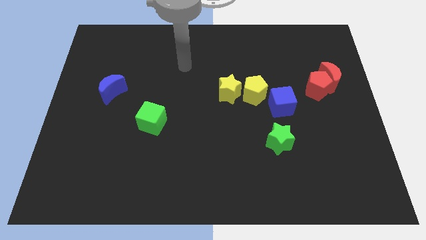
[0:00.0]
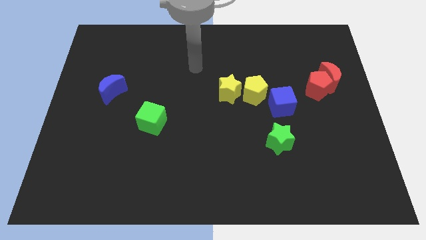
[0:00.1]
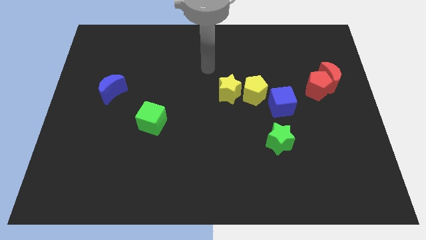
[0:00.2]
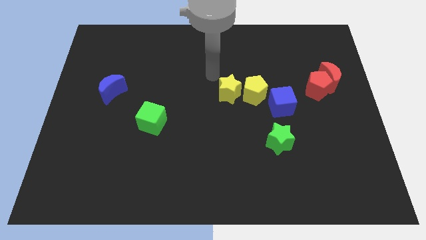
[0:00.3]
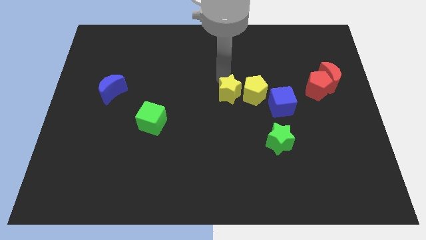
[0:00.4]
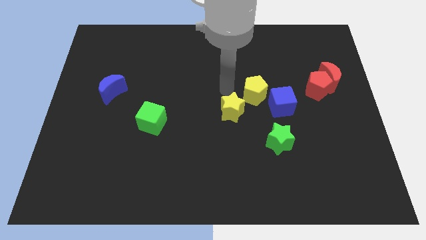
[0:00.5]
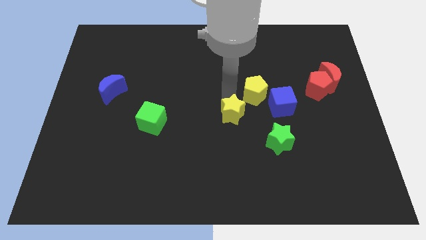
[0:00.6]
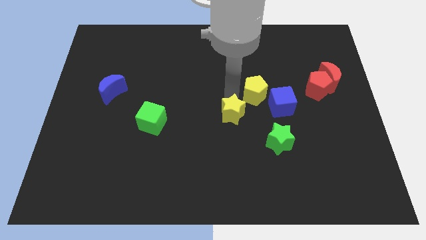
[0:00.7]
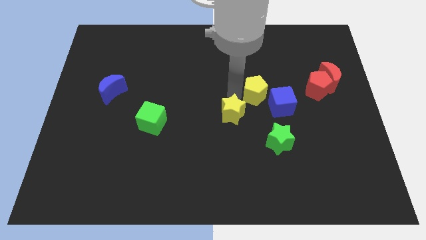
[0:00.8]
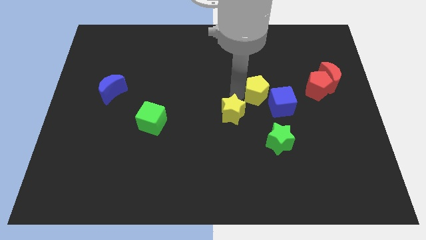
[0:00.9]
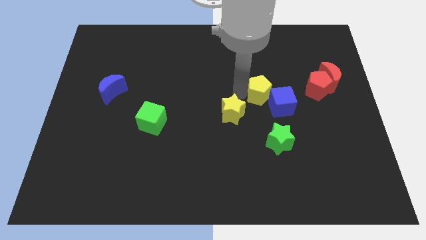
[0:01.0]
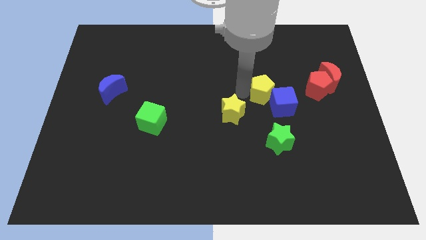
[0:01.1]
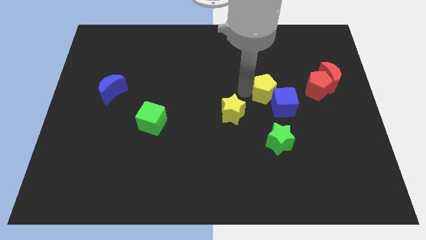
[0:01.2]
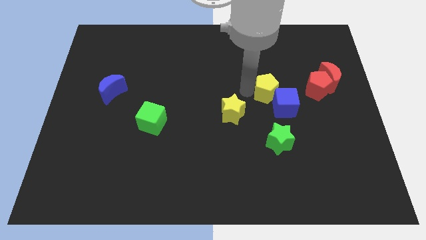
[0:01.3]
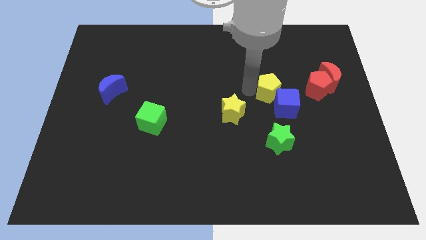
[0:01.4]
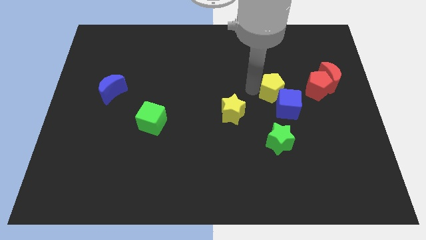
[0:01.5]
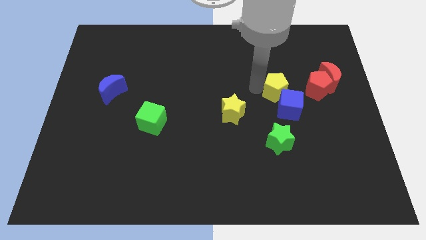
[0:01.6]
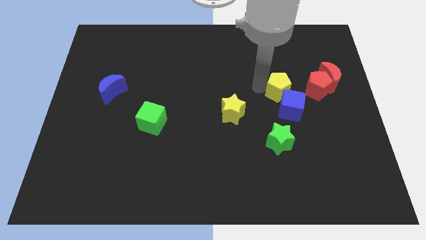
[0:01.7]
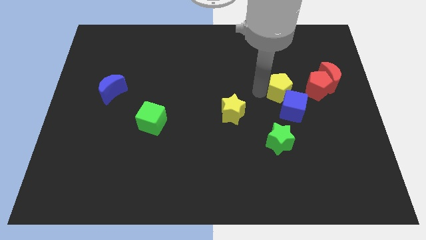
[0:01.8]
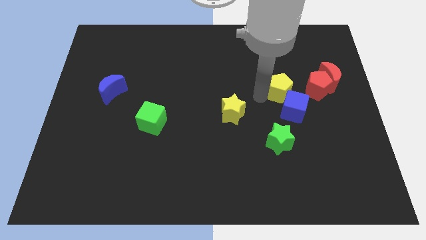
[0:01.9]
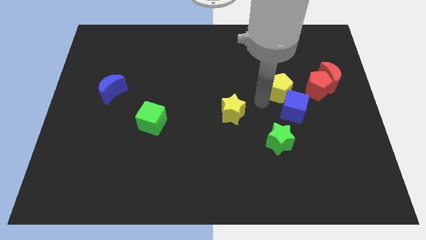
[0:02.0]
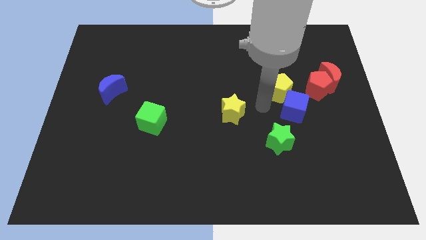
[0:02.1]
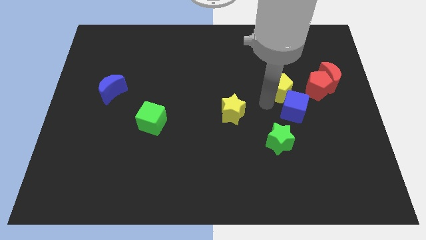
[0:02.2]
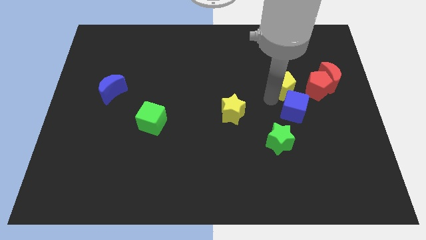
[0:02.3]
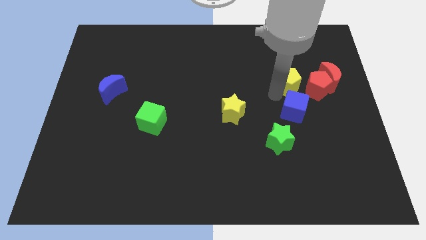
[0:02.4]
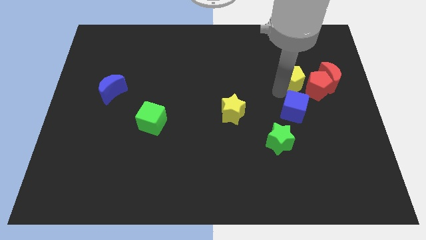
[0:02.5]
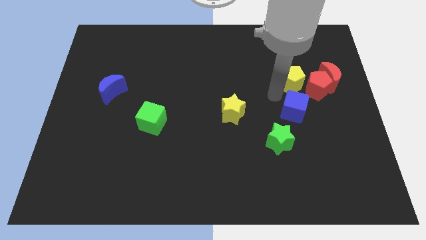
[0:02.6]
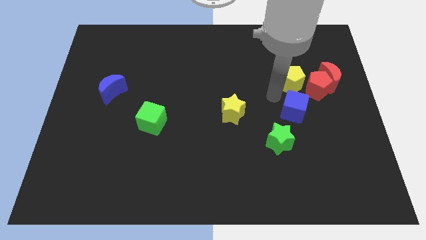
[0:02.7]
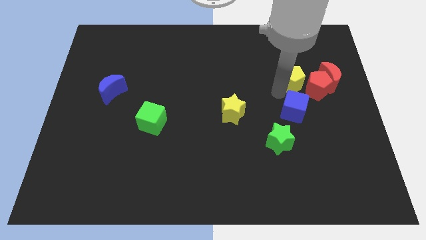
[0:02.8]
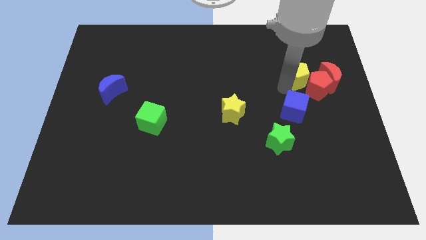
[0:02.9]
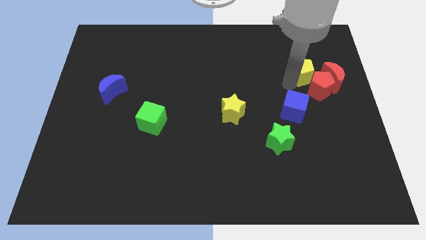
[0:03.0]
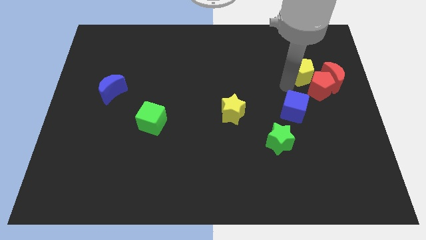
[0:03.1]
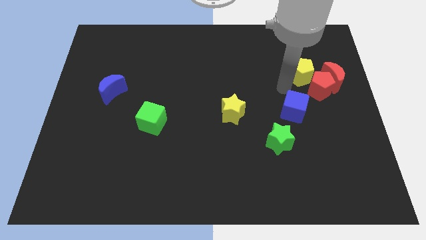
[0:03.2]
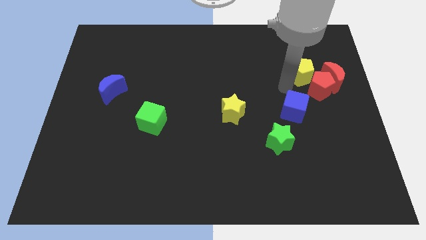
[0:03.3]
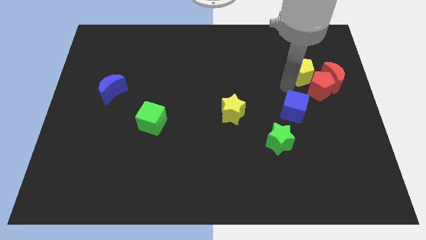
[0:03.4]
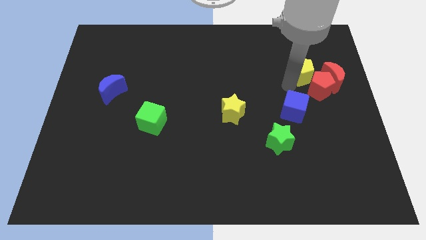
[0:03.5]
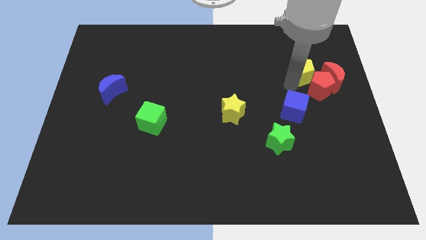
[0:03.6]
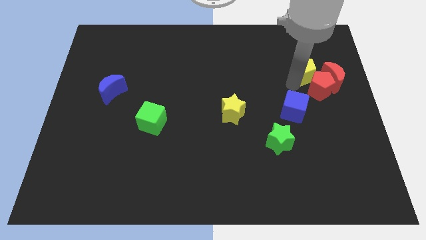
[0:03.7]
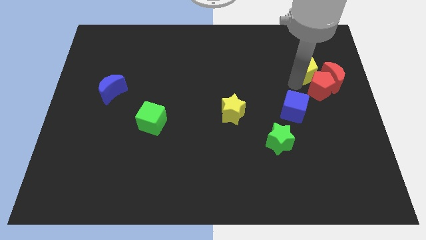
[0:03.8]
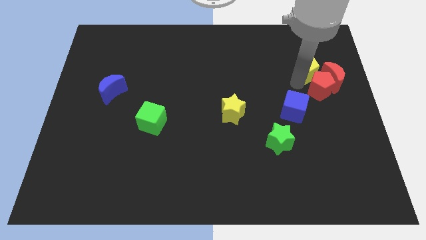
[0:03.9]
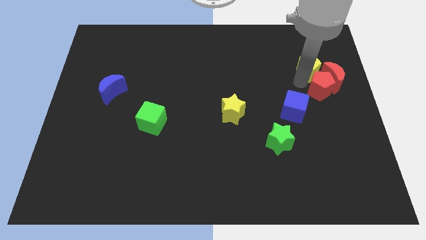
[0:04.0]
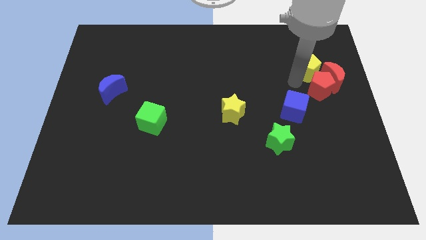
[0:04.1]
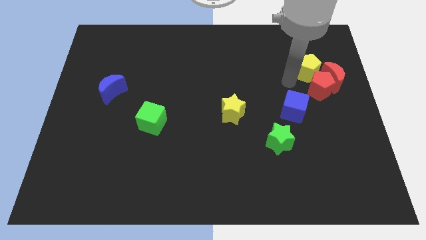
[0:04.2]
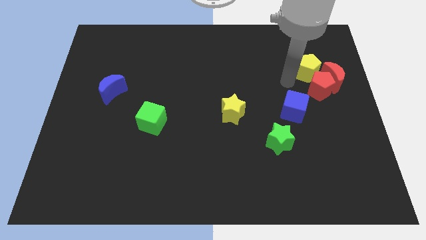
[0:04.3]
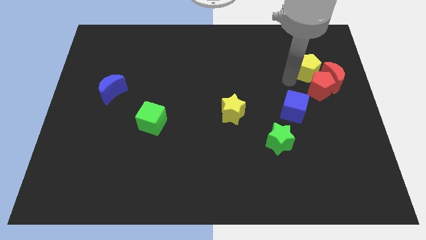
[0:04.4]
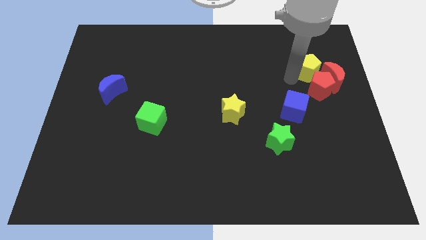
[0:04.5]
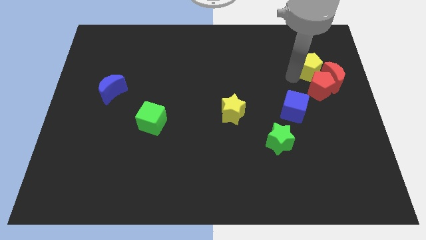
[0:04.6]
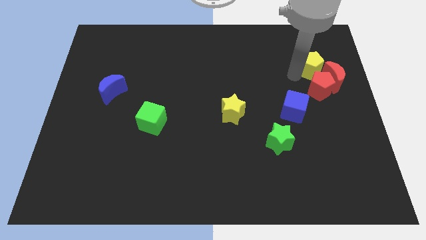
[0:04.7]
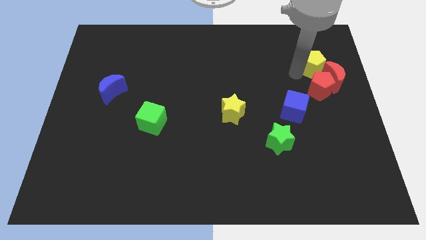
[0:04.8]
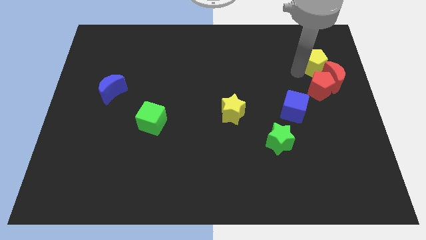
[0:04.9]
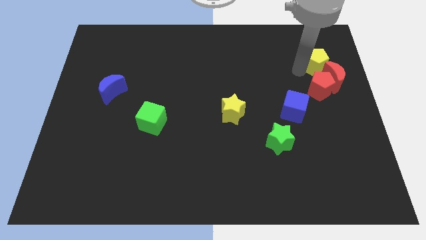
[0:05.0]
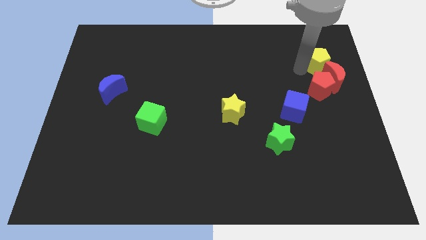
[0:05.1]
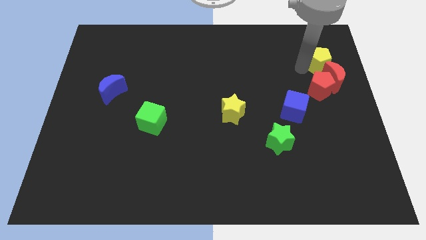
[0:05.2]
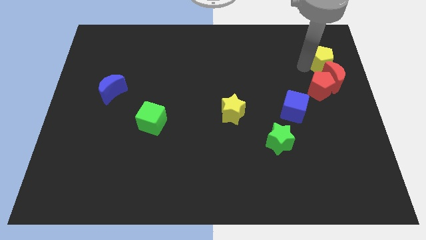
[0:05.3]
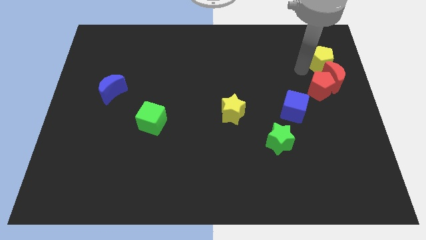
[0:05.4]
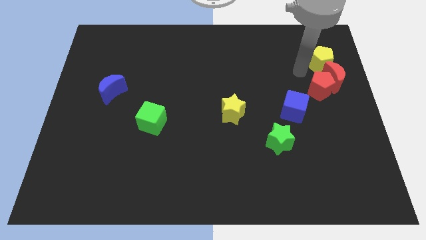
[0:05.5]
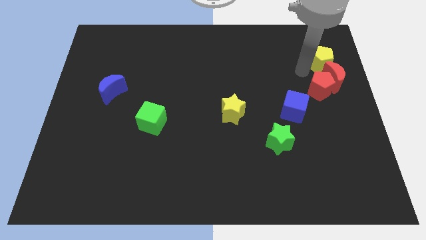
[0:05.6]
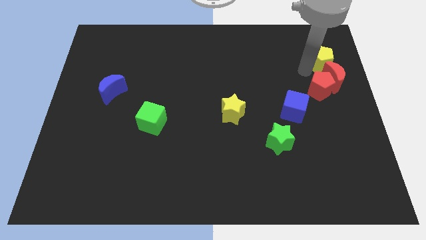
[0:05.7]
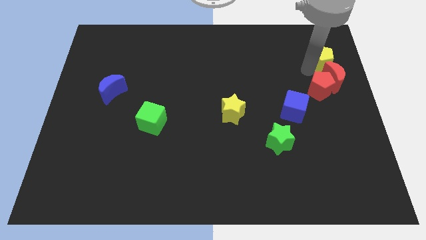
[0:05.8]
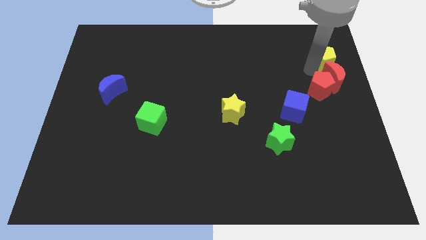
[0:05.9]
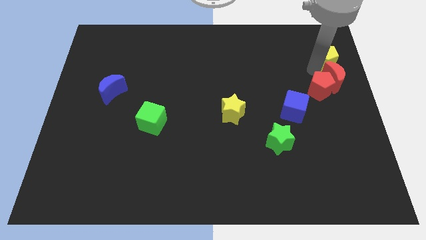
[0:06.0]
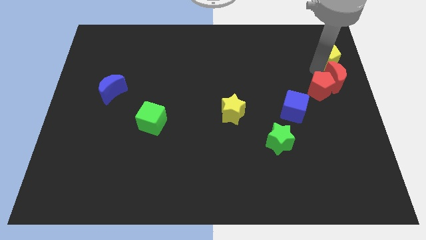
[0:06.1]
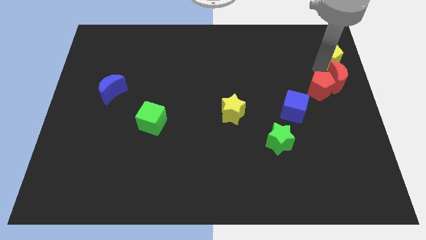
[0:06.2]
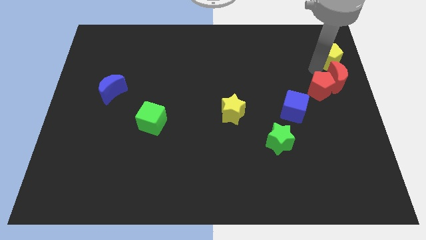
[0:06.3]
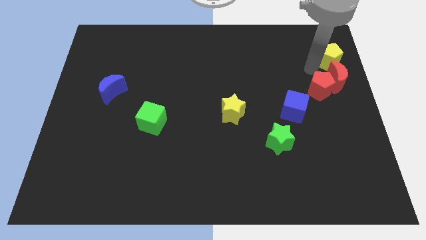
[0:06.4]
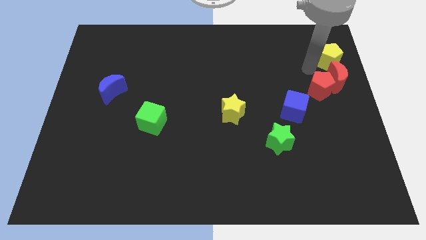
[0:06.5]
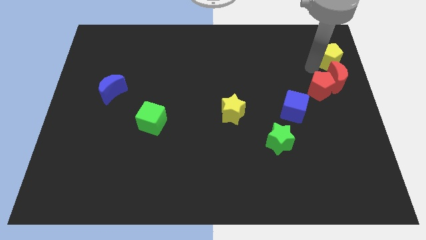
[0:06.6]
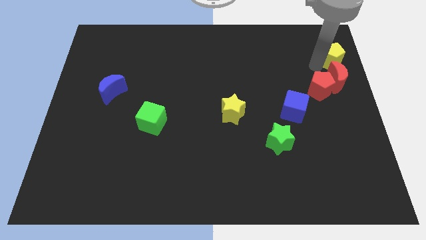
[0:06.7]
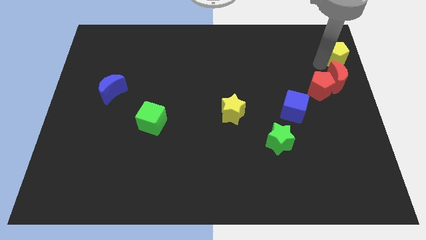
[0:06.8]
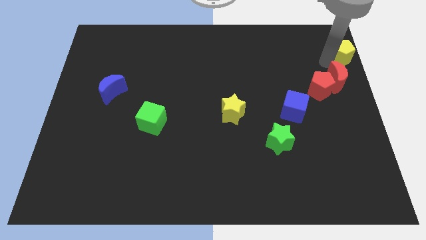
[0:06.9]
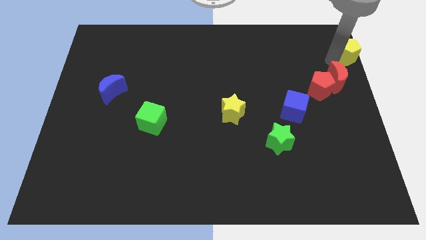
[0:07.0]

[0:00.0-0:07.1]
put the yellow pentagon to the top right of the board
